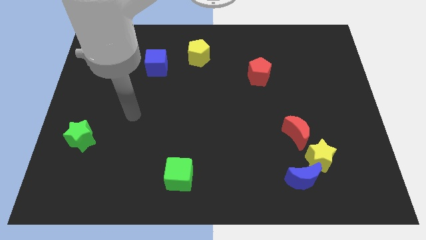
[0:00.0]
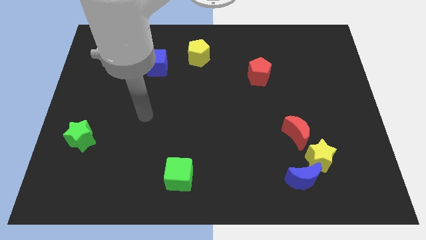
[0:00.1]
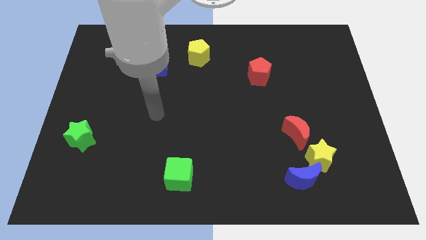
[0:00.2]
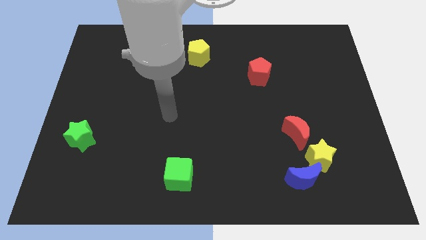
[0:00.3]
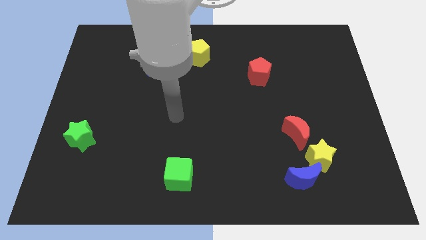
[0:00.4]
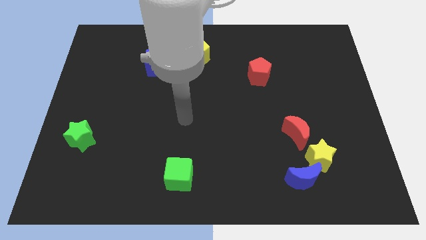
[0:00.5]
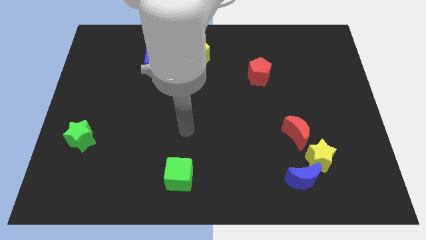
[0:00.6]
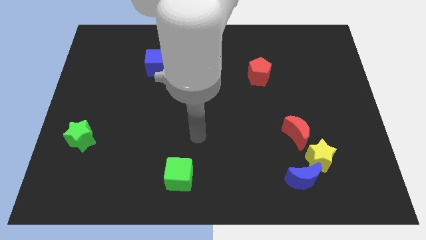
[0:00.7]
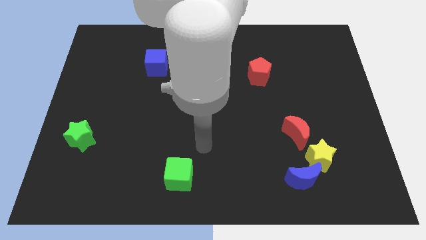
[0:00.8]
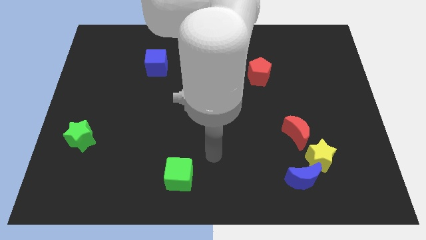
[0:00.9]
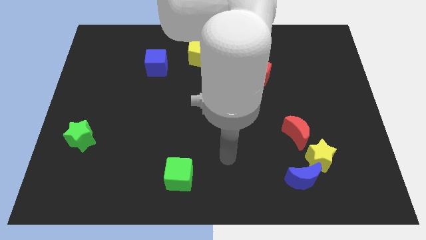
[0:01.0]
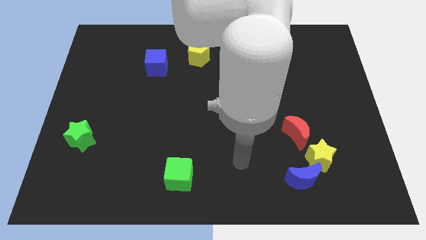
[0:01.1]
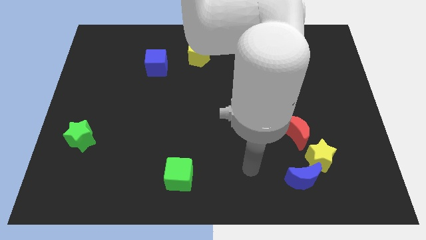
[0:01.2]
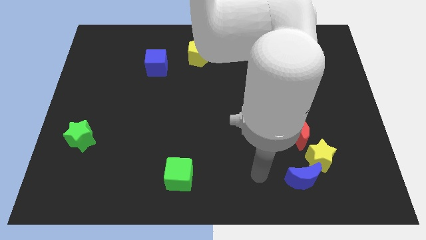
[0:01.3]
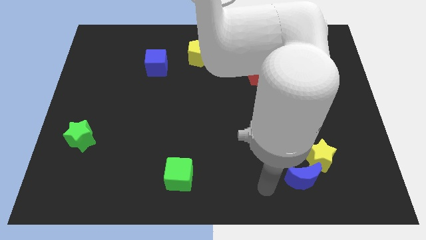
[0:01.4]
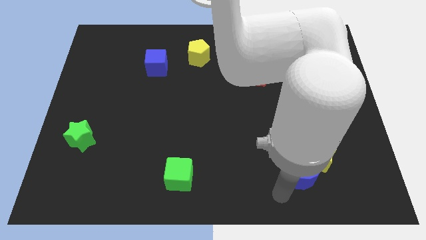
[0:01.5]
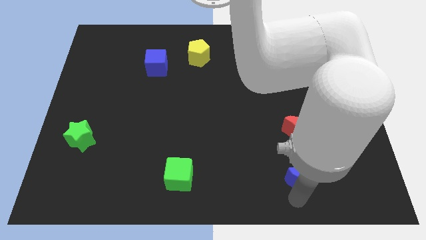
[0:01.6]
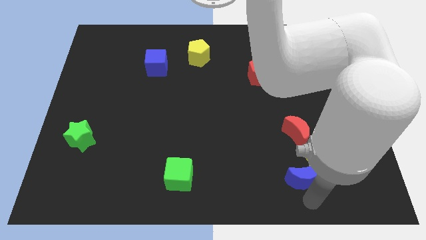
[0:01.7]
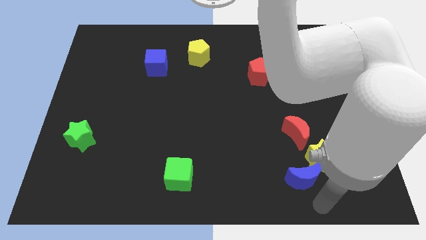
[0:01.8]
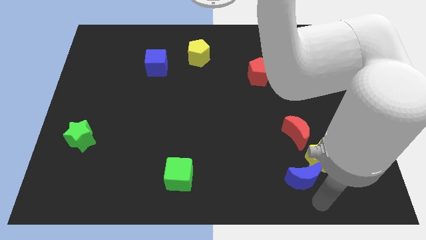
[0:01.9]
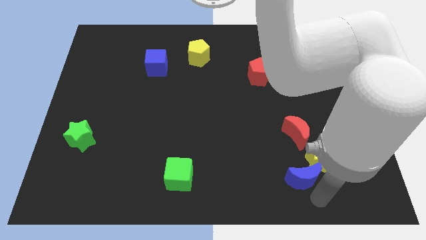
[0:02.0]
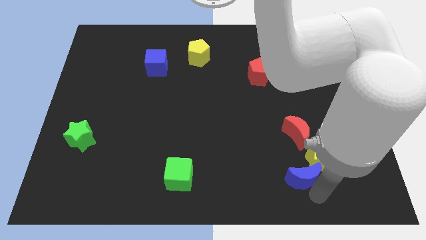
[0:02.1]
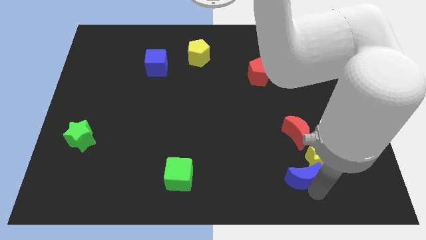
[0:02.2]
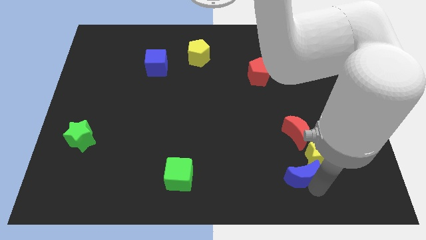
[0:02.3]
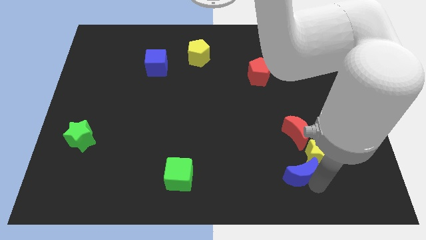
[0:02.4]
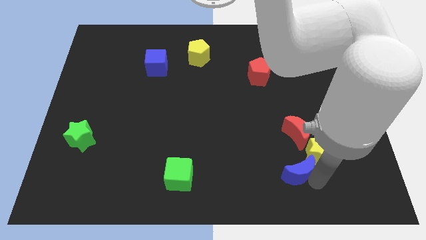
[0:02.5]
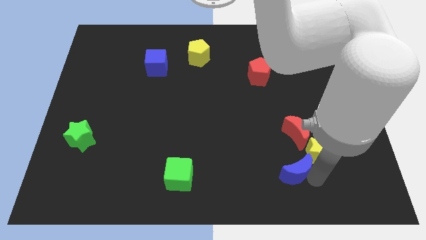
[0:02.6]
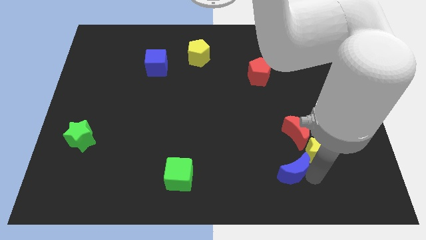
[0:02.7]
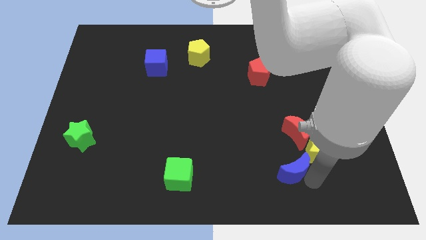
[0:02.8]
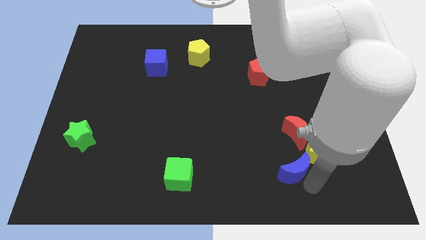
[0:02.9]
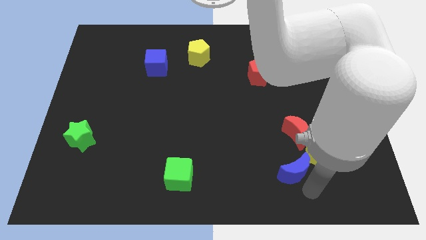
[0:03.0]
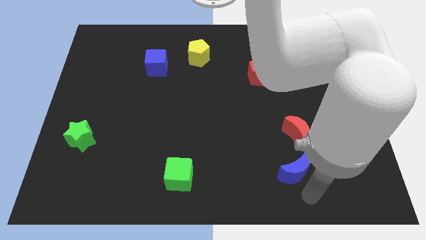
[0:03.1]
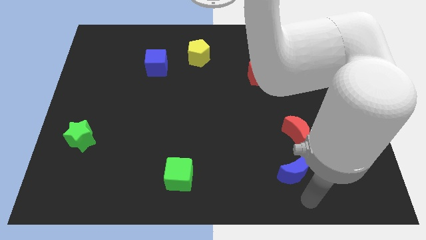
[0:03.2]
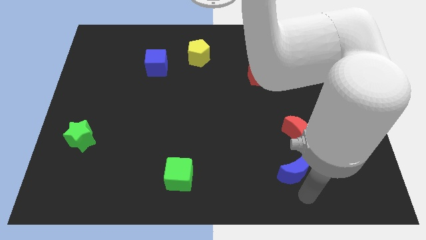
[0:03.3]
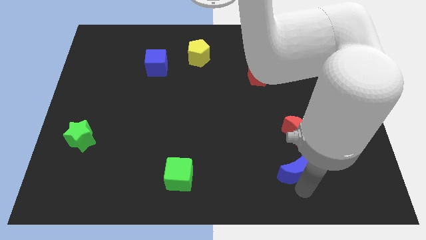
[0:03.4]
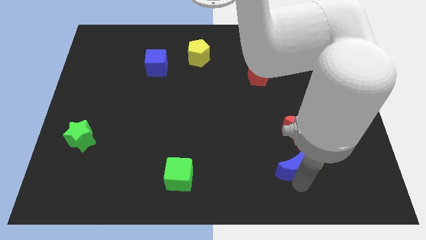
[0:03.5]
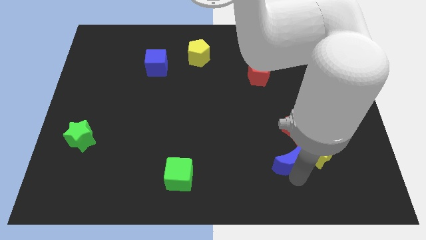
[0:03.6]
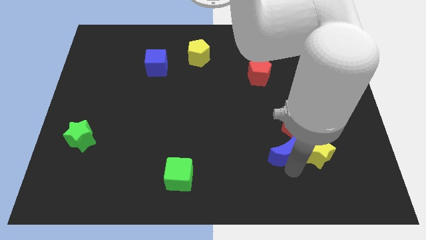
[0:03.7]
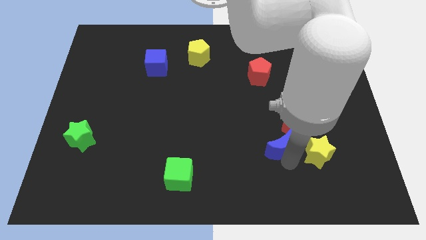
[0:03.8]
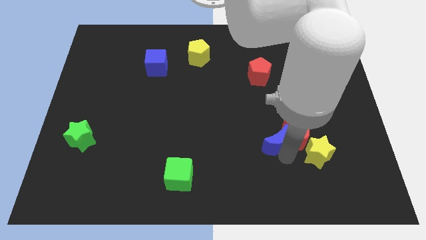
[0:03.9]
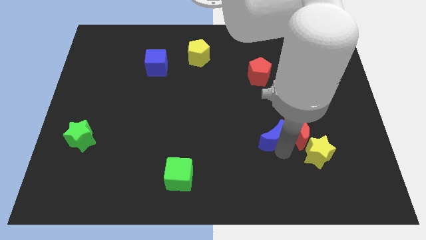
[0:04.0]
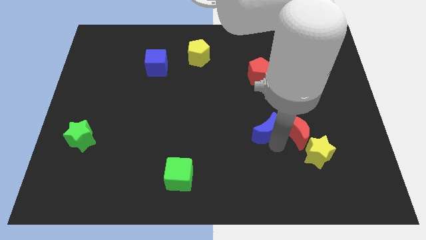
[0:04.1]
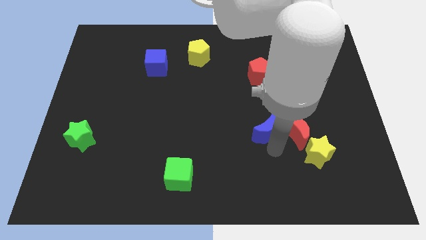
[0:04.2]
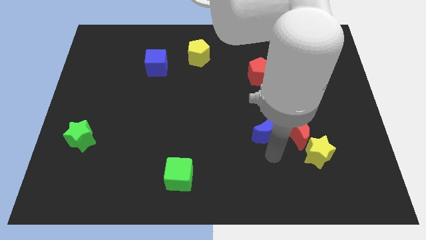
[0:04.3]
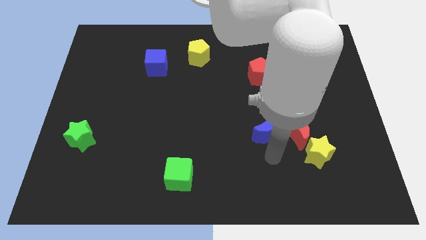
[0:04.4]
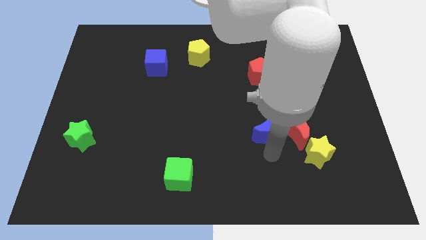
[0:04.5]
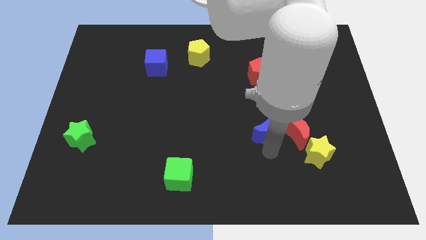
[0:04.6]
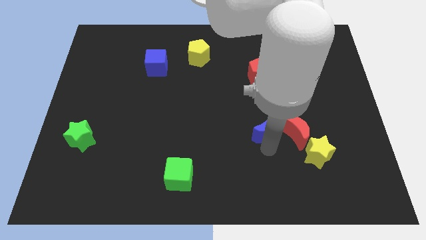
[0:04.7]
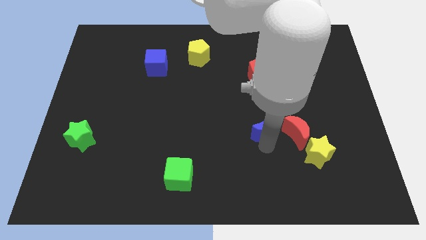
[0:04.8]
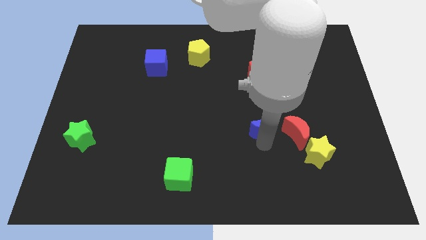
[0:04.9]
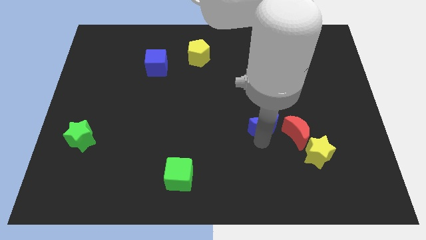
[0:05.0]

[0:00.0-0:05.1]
move the blue moon below the red pentagon

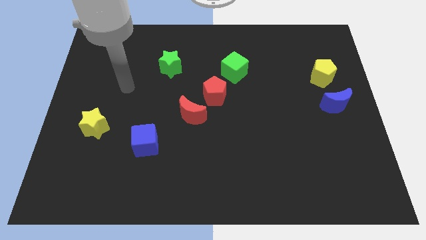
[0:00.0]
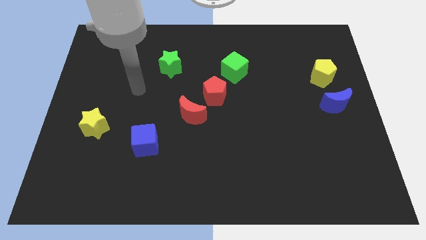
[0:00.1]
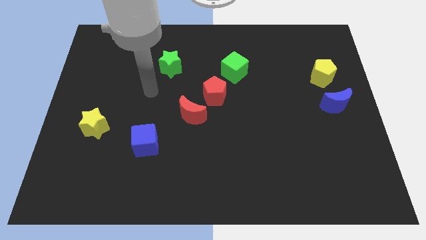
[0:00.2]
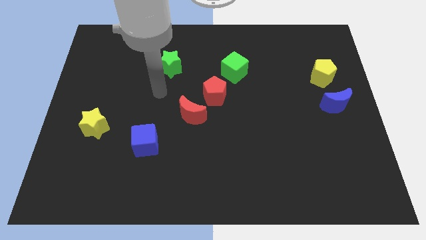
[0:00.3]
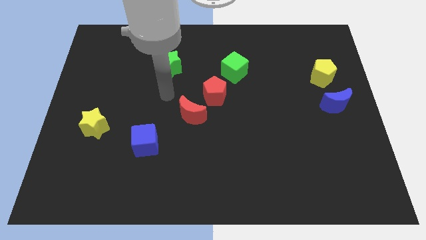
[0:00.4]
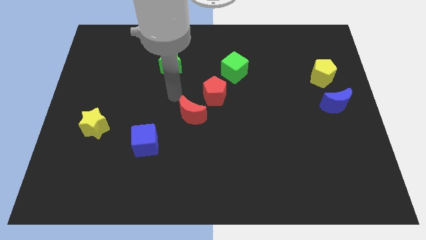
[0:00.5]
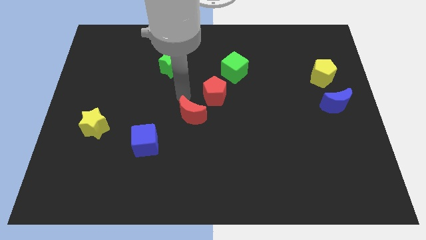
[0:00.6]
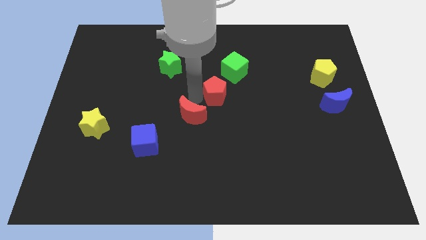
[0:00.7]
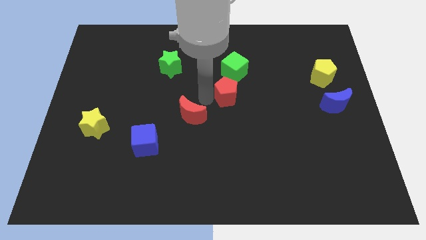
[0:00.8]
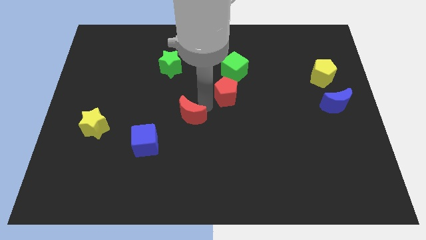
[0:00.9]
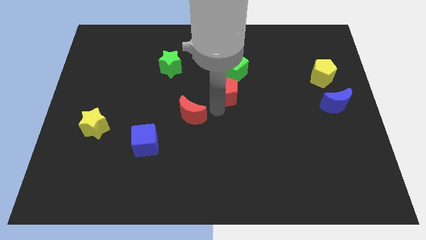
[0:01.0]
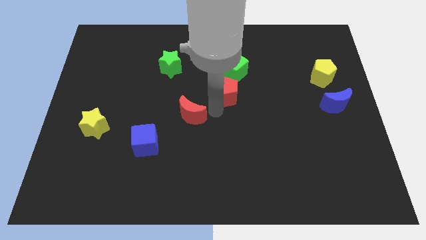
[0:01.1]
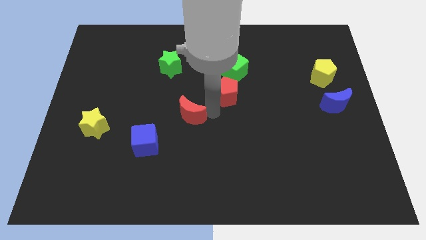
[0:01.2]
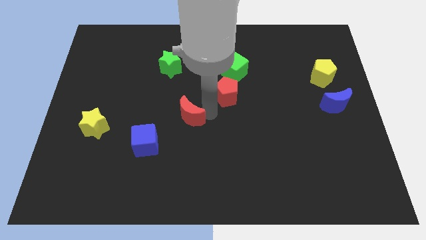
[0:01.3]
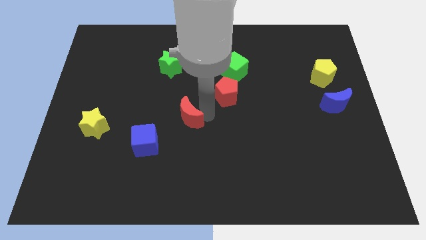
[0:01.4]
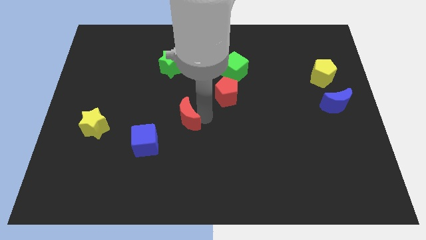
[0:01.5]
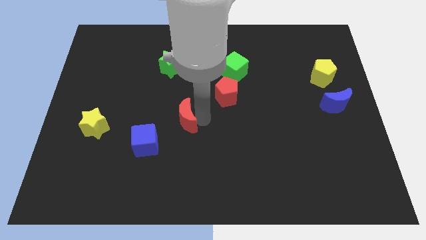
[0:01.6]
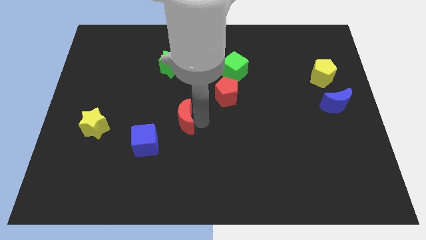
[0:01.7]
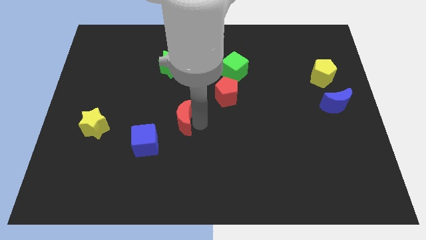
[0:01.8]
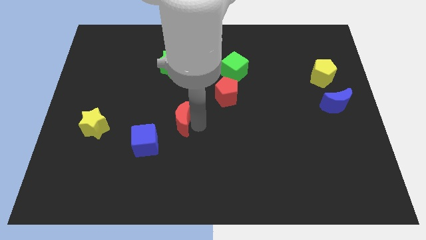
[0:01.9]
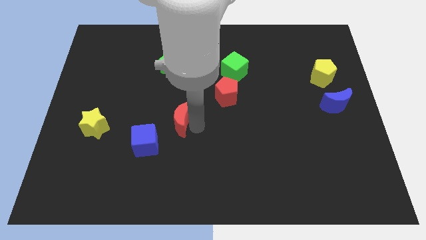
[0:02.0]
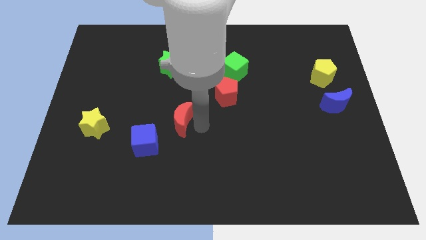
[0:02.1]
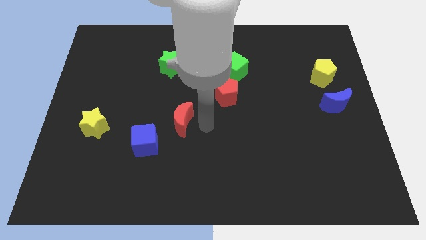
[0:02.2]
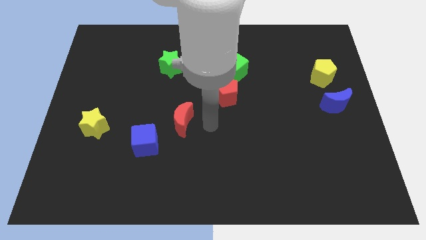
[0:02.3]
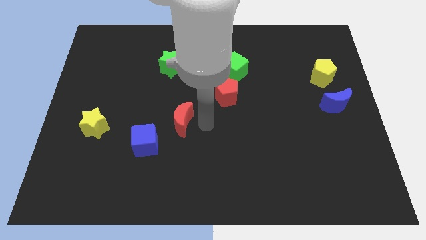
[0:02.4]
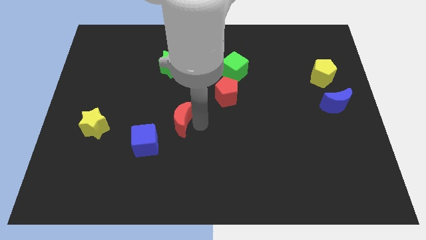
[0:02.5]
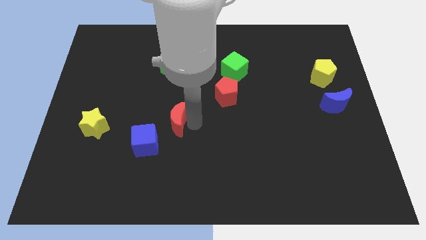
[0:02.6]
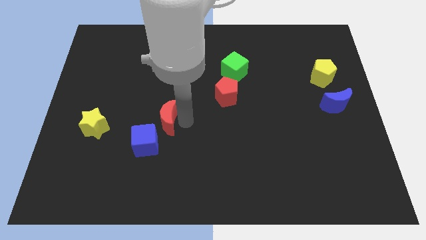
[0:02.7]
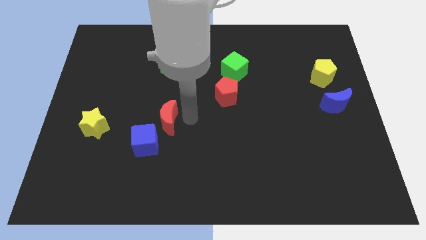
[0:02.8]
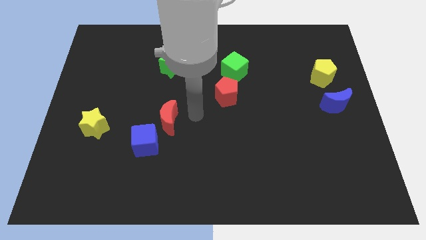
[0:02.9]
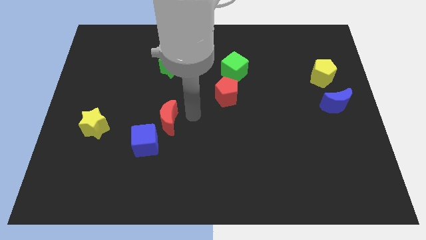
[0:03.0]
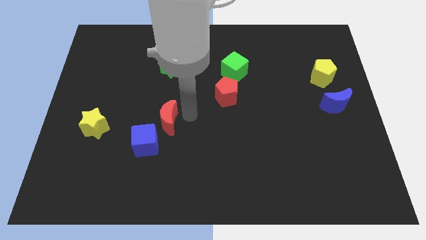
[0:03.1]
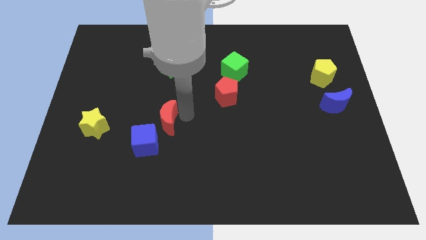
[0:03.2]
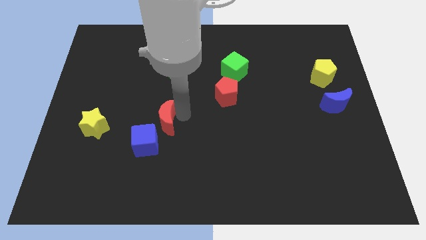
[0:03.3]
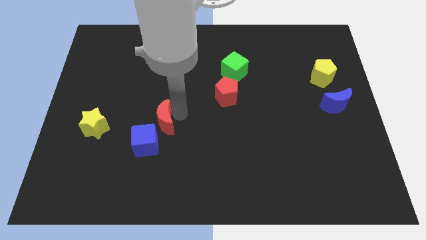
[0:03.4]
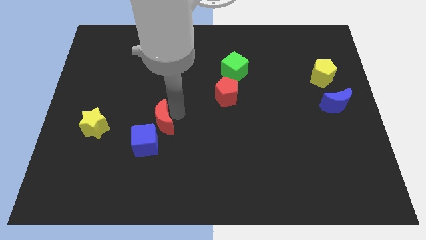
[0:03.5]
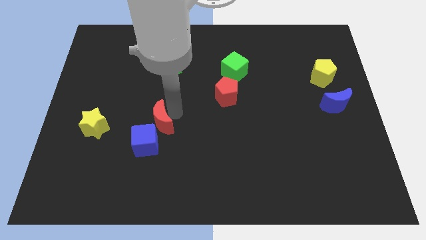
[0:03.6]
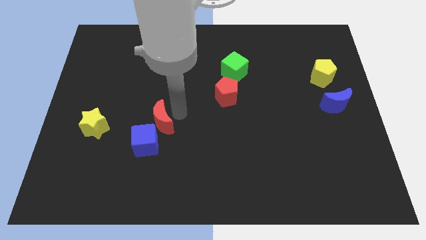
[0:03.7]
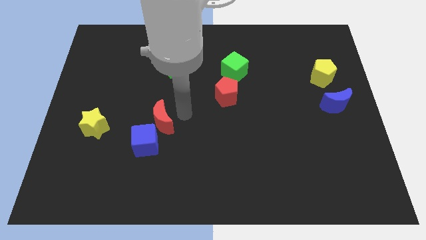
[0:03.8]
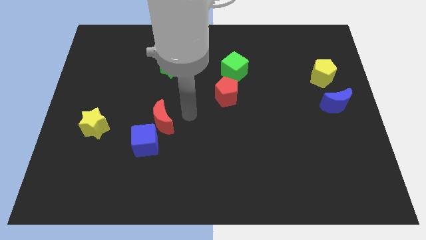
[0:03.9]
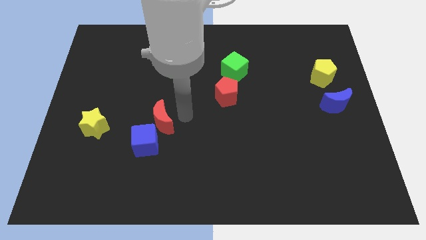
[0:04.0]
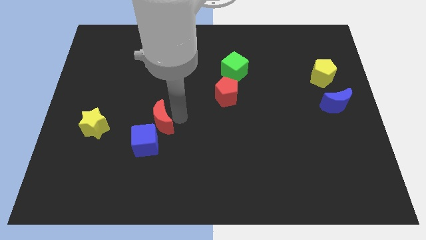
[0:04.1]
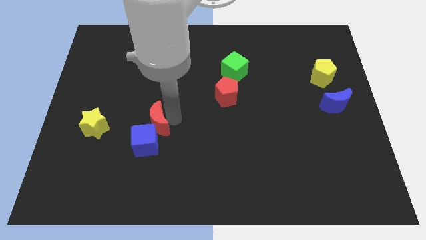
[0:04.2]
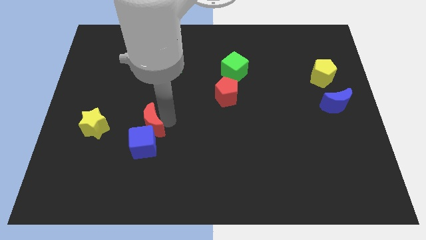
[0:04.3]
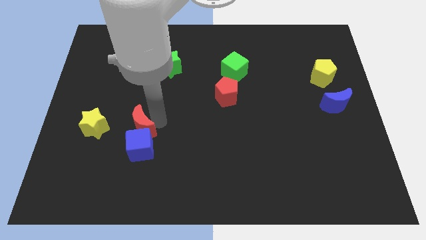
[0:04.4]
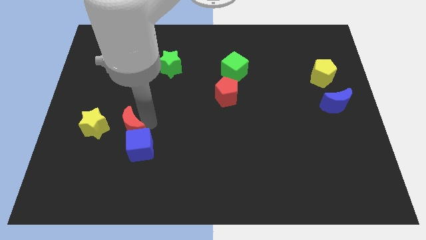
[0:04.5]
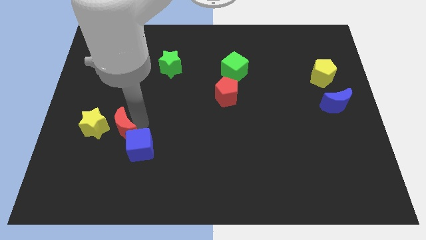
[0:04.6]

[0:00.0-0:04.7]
move the red moon diagonally down and to the right of the yellow star
